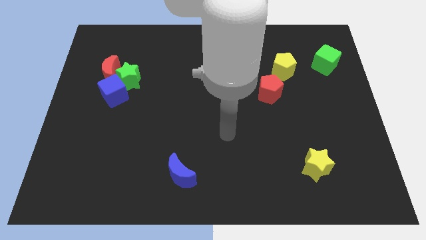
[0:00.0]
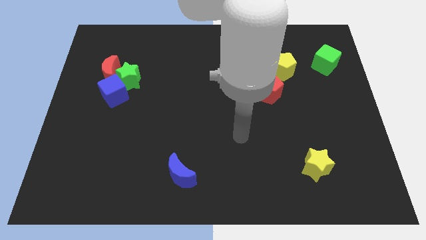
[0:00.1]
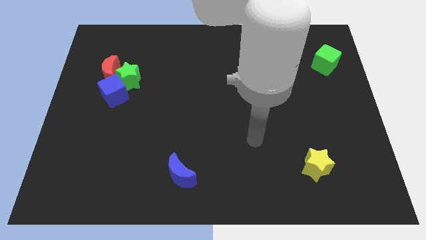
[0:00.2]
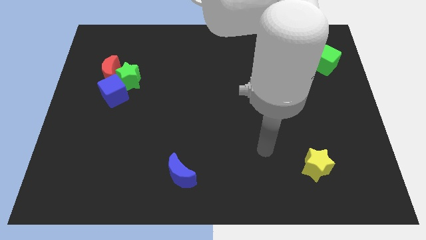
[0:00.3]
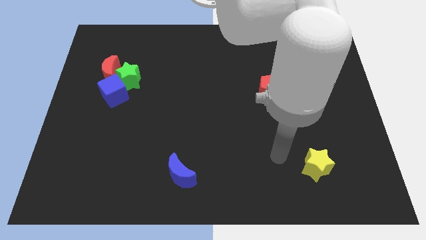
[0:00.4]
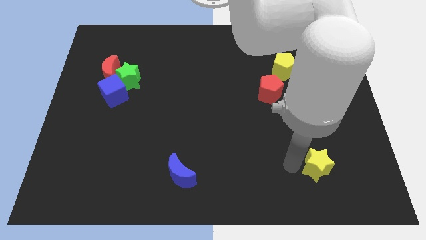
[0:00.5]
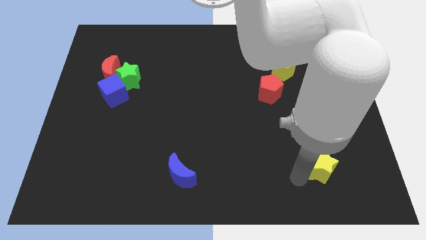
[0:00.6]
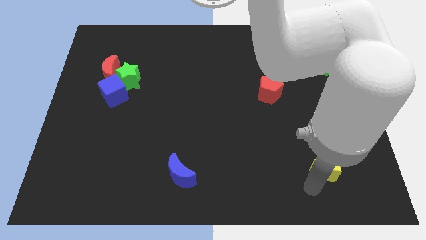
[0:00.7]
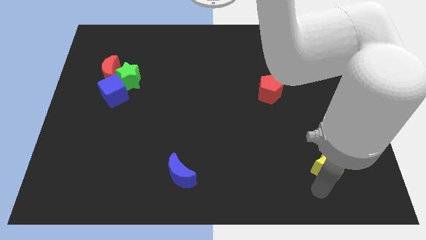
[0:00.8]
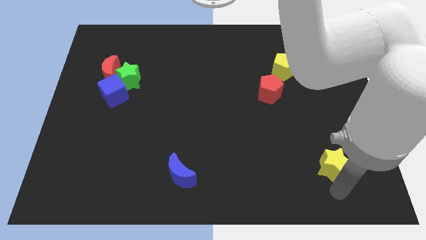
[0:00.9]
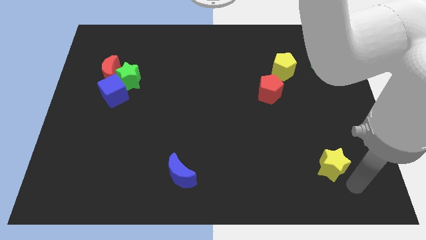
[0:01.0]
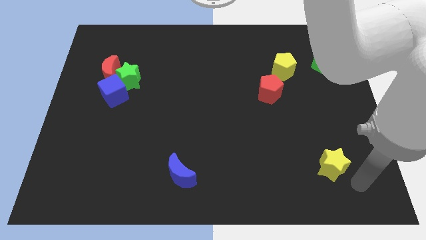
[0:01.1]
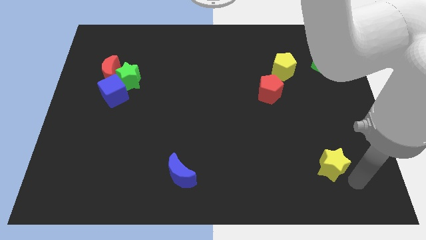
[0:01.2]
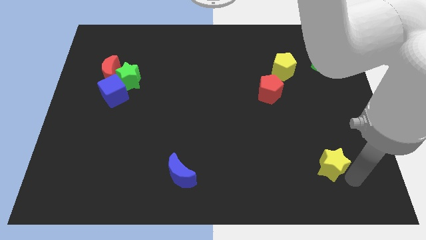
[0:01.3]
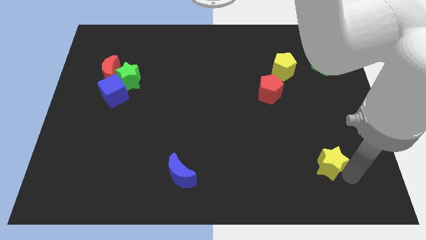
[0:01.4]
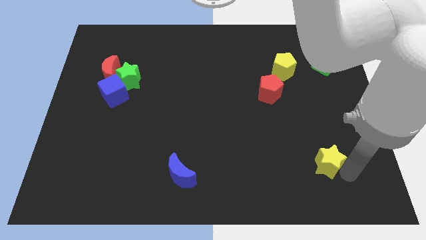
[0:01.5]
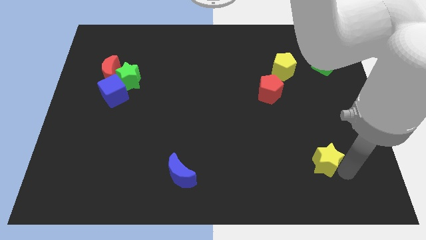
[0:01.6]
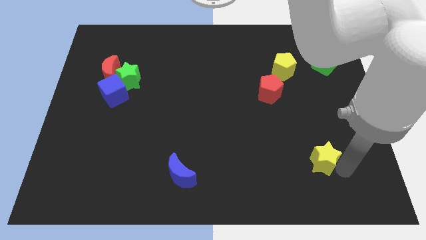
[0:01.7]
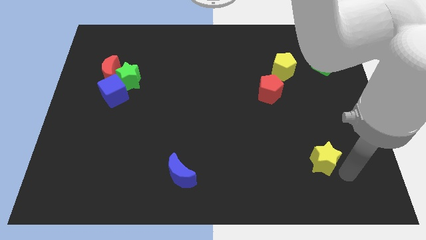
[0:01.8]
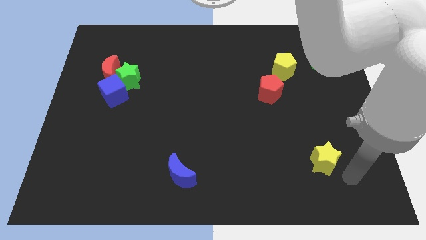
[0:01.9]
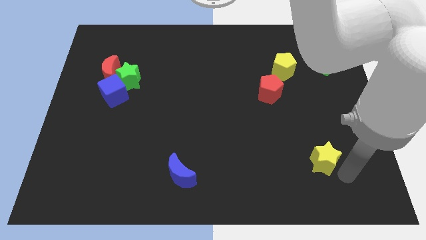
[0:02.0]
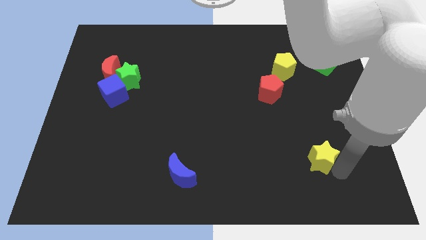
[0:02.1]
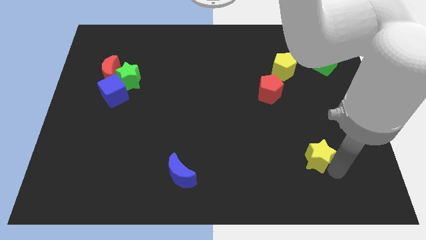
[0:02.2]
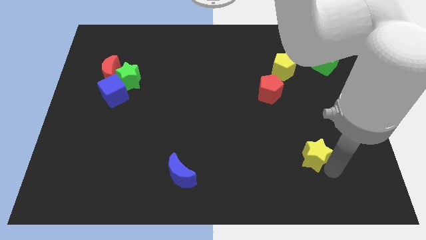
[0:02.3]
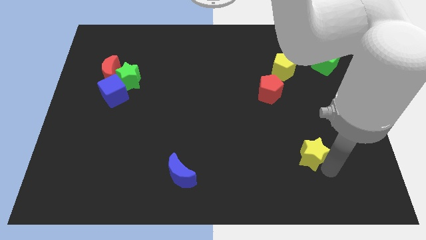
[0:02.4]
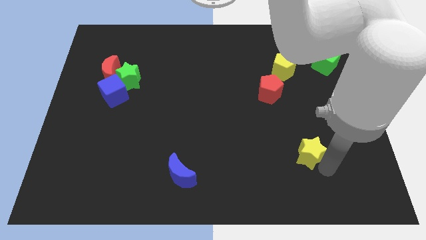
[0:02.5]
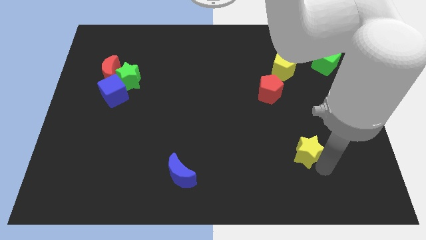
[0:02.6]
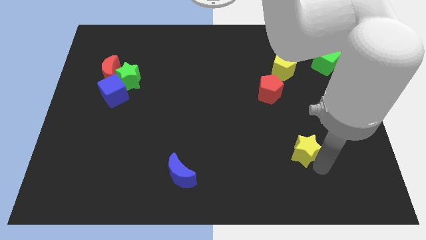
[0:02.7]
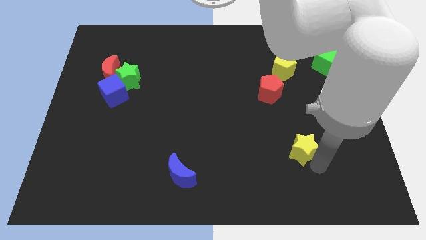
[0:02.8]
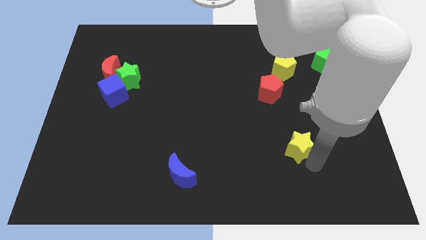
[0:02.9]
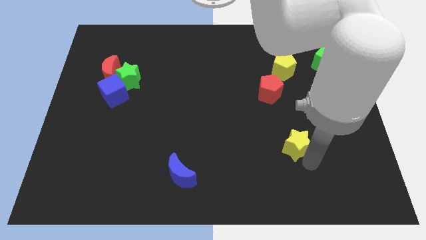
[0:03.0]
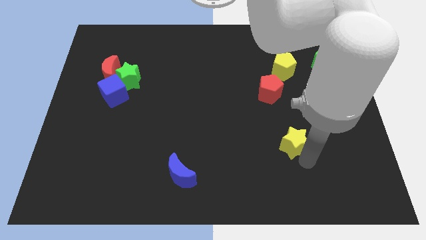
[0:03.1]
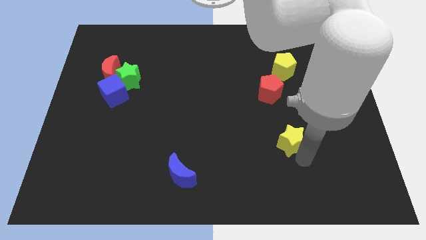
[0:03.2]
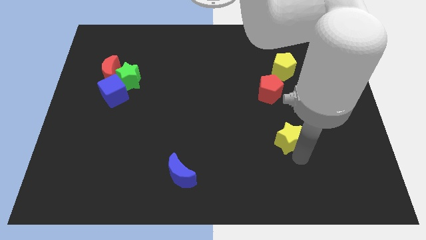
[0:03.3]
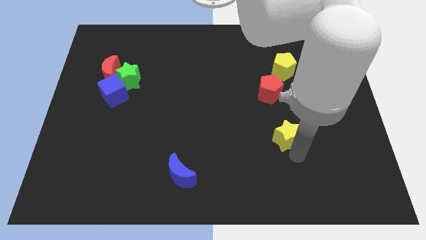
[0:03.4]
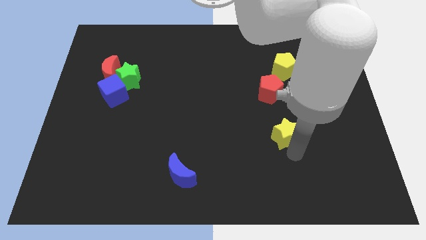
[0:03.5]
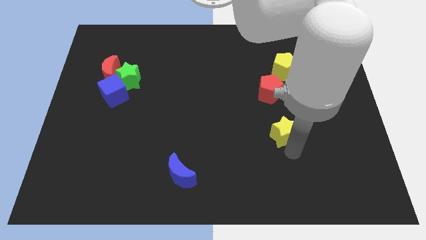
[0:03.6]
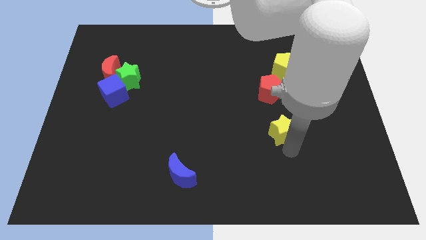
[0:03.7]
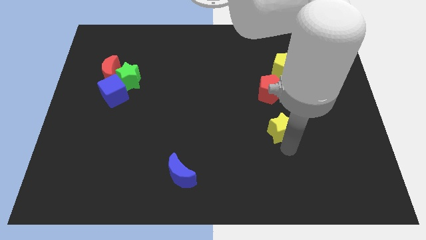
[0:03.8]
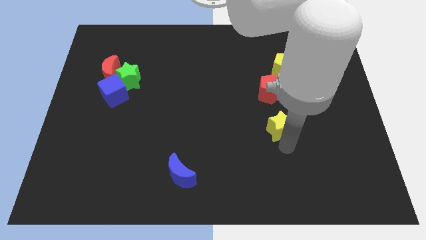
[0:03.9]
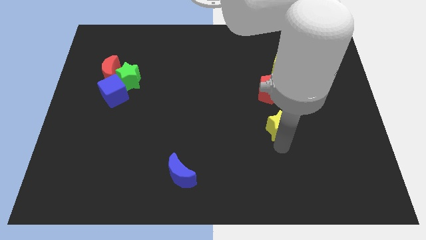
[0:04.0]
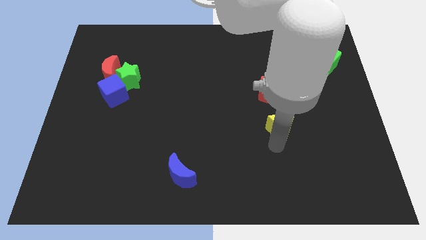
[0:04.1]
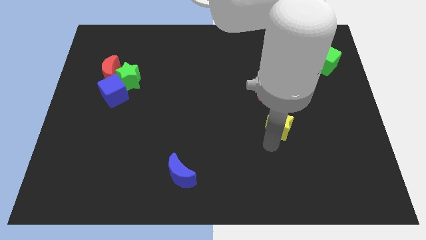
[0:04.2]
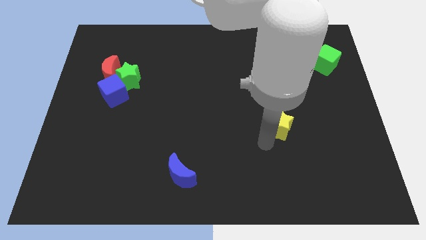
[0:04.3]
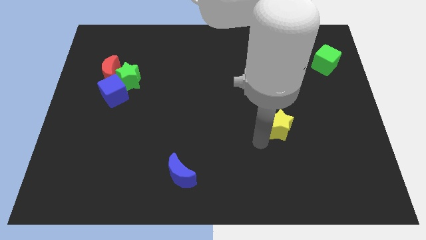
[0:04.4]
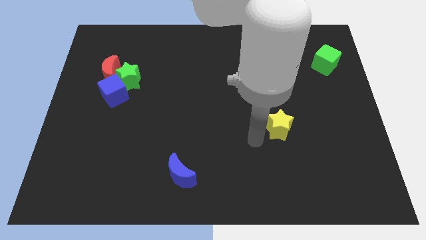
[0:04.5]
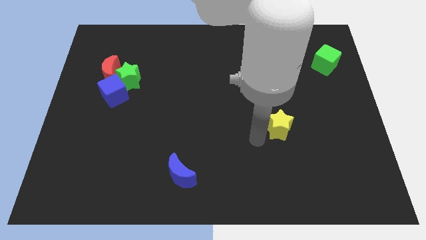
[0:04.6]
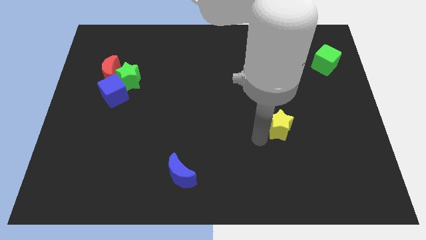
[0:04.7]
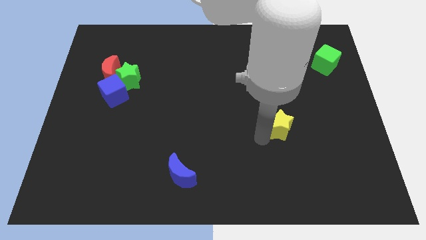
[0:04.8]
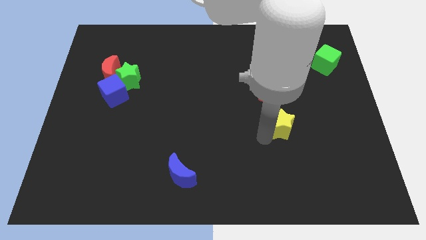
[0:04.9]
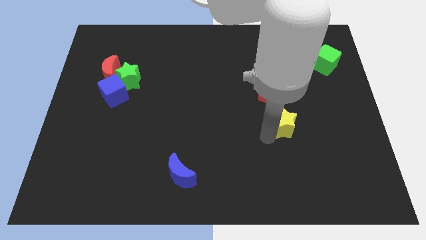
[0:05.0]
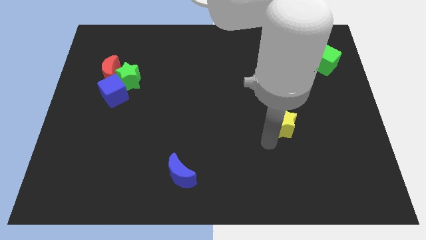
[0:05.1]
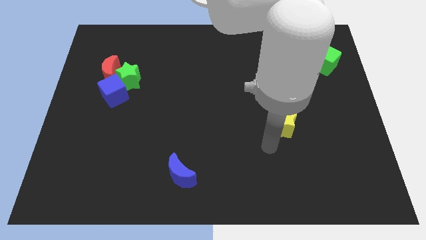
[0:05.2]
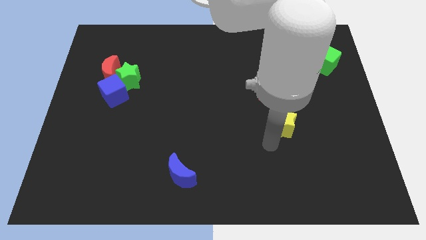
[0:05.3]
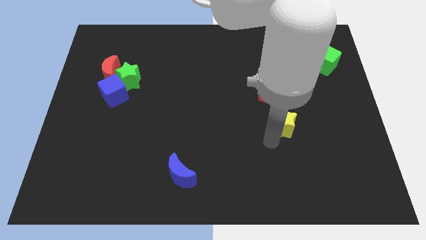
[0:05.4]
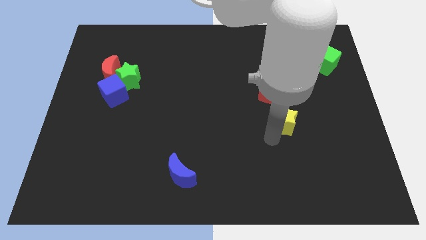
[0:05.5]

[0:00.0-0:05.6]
move the yellow star to the bottom right of the red pentagon

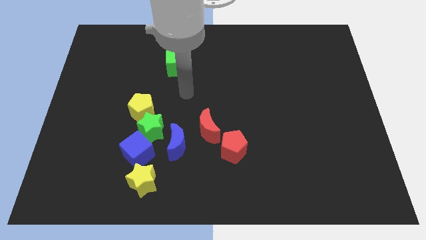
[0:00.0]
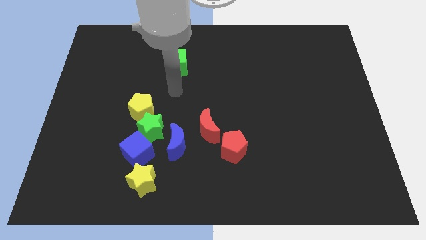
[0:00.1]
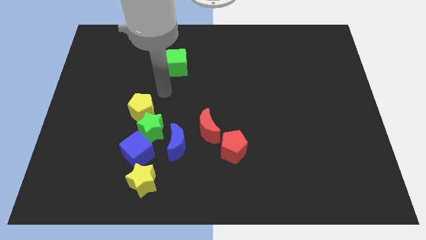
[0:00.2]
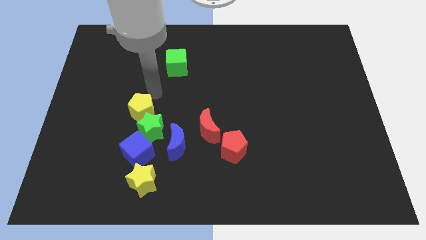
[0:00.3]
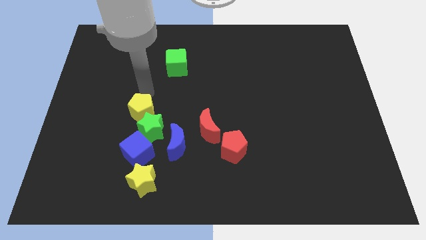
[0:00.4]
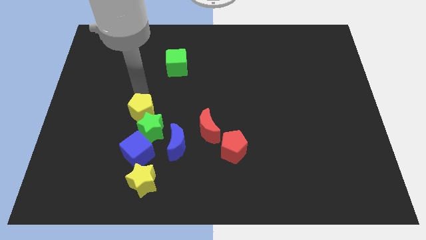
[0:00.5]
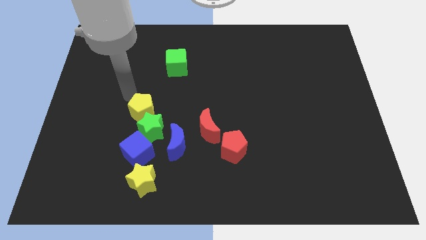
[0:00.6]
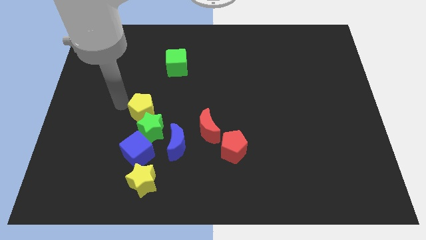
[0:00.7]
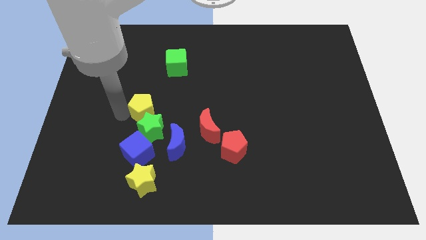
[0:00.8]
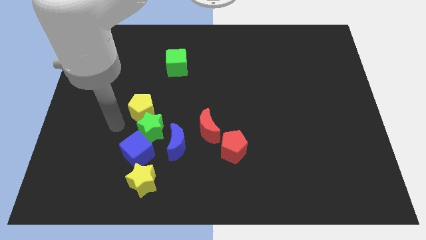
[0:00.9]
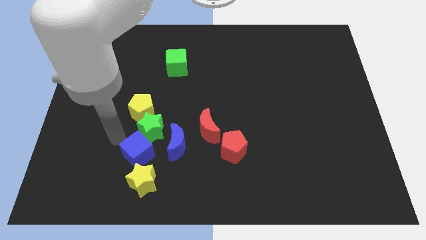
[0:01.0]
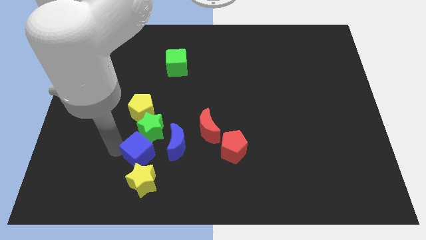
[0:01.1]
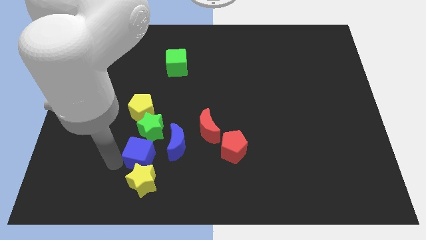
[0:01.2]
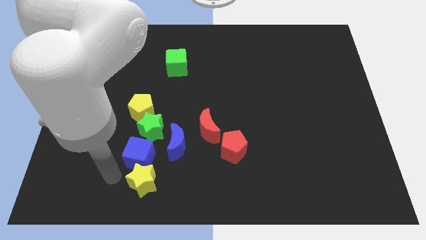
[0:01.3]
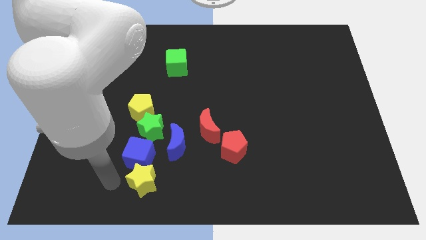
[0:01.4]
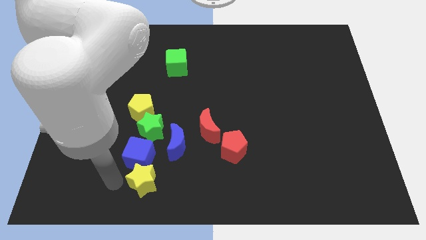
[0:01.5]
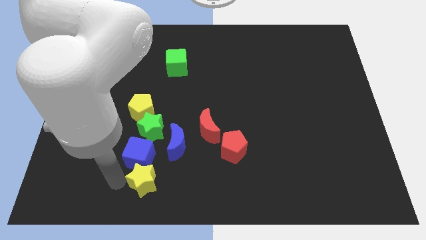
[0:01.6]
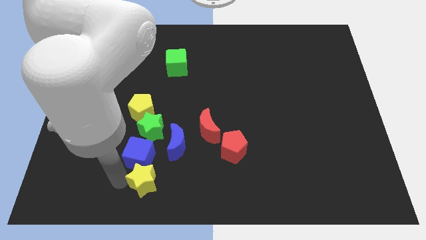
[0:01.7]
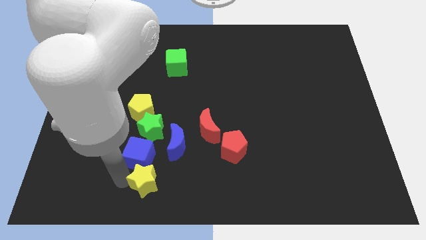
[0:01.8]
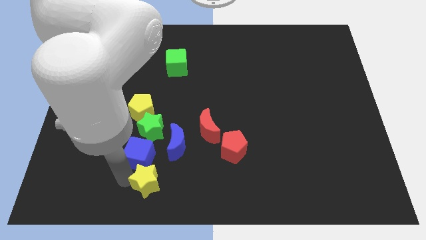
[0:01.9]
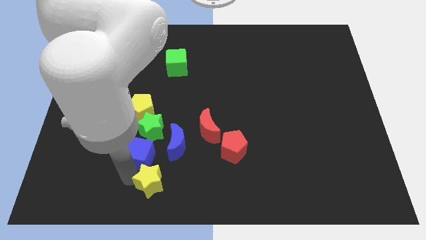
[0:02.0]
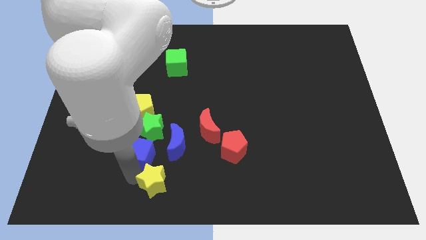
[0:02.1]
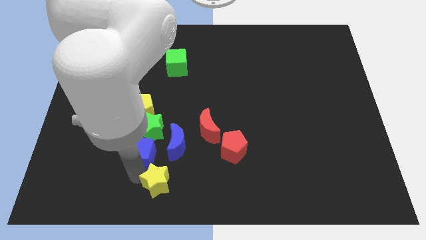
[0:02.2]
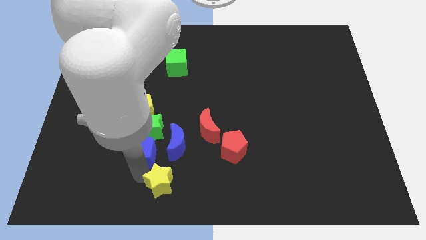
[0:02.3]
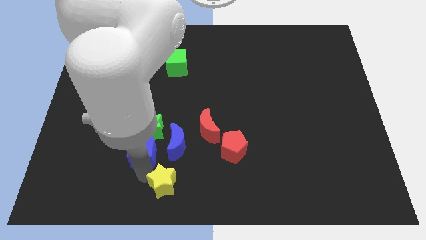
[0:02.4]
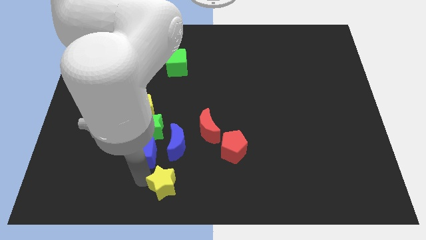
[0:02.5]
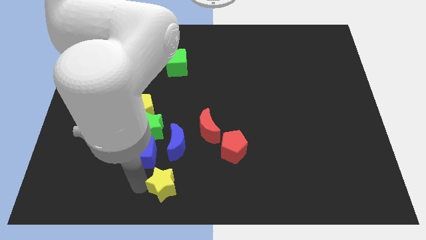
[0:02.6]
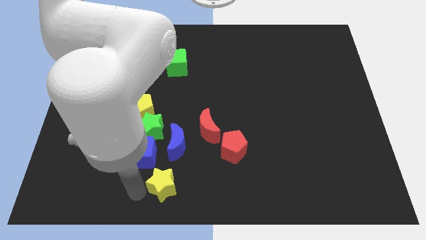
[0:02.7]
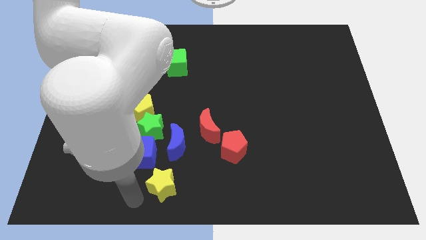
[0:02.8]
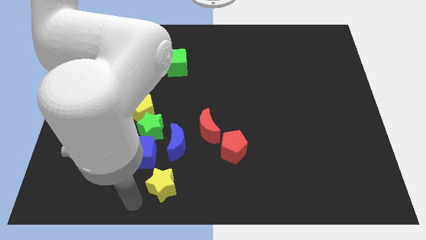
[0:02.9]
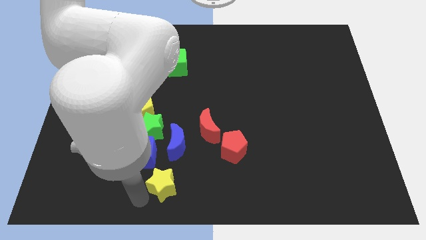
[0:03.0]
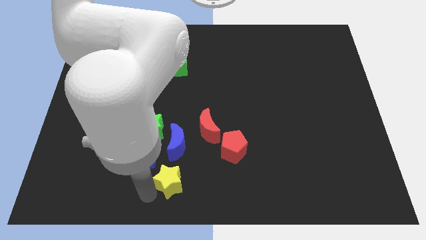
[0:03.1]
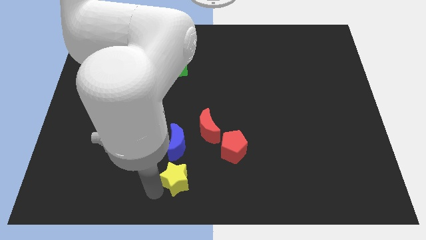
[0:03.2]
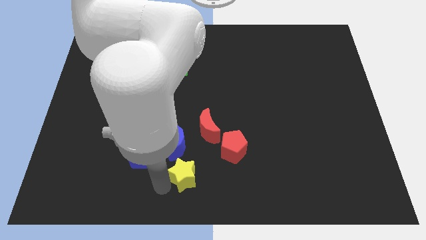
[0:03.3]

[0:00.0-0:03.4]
move the yellow star to the bottom side of the red moon
